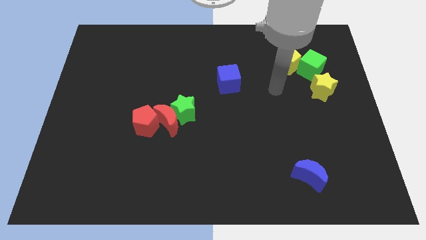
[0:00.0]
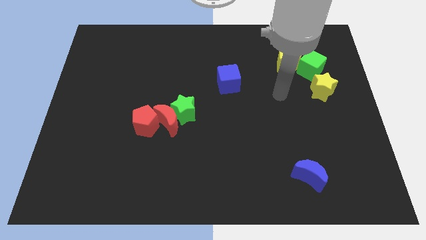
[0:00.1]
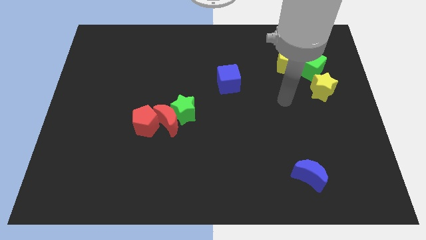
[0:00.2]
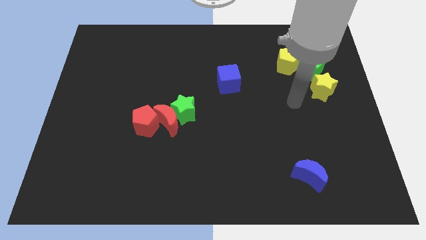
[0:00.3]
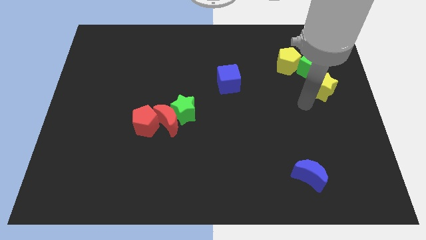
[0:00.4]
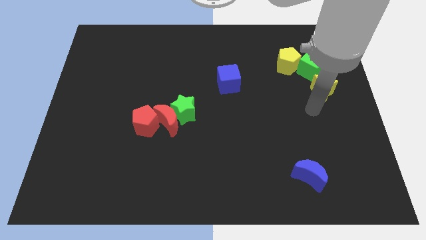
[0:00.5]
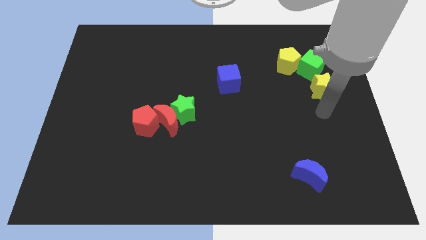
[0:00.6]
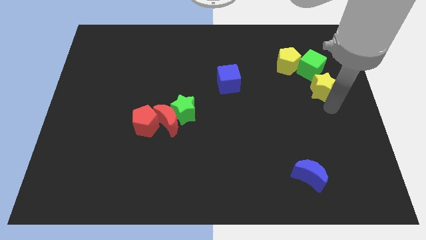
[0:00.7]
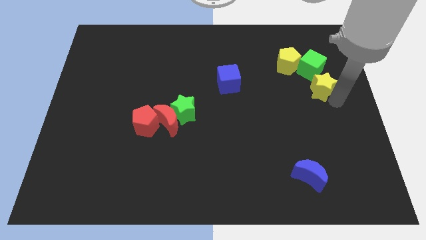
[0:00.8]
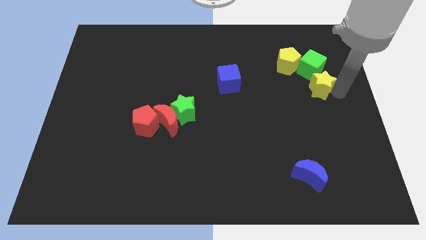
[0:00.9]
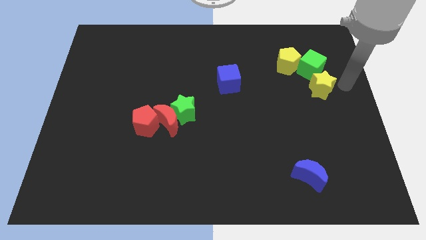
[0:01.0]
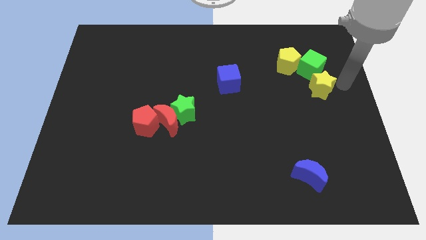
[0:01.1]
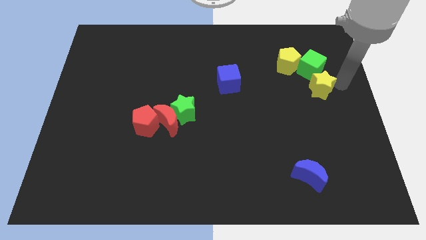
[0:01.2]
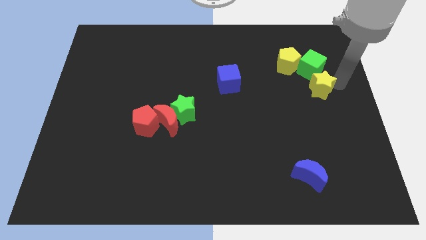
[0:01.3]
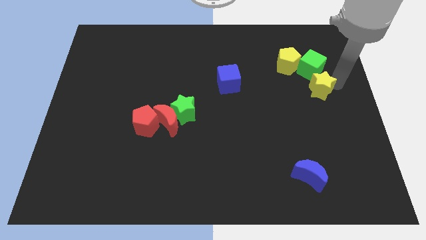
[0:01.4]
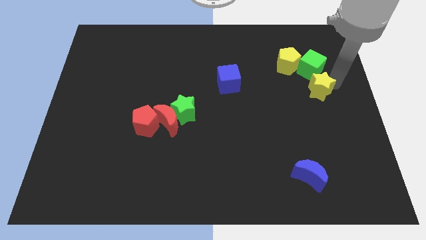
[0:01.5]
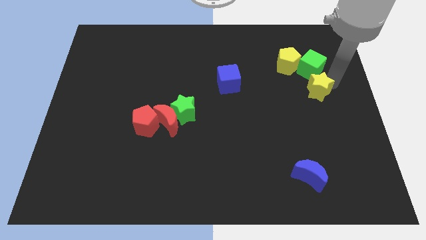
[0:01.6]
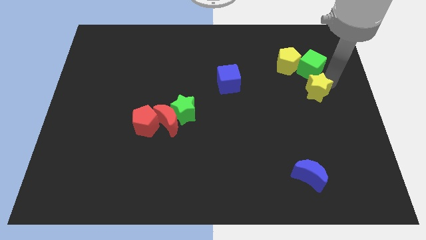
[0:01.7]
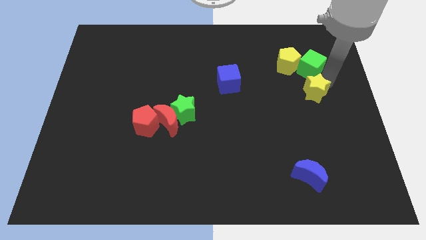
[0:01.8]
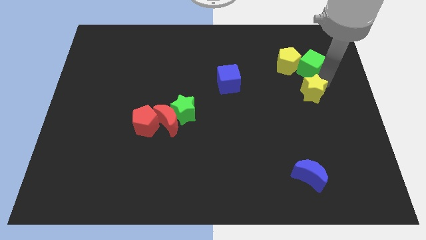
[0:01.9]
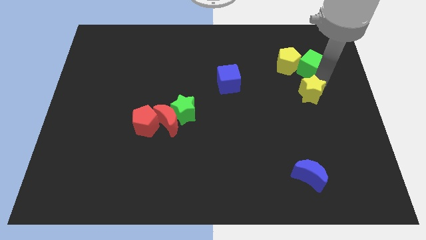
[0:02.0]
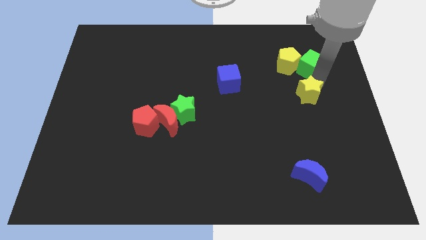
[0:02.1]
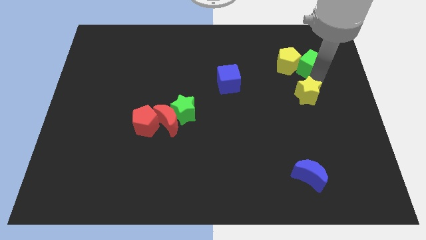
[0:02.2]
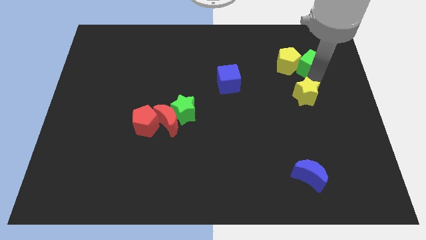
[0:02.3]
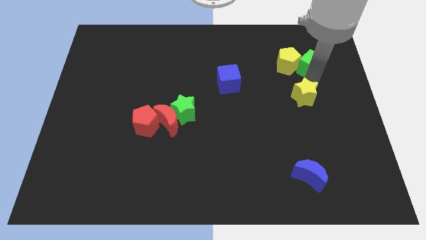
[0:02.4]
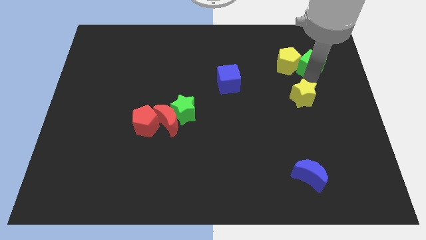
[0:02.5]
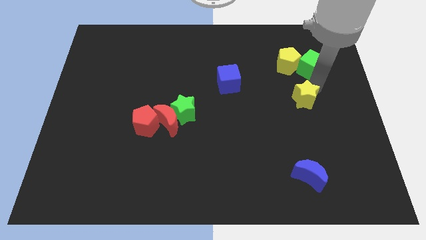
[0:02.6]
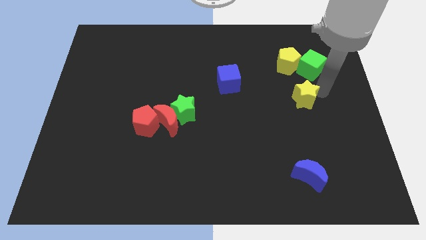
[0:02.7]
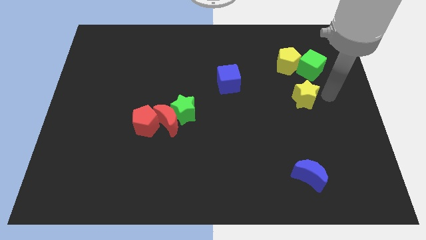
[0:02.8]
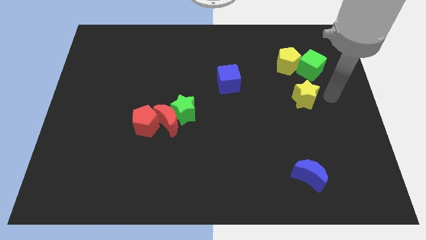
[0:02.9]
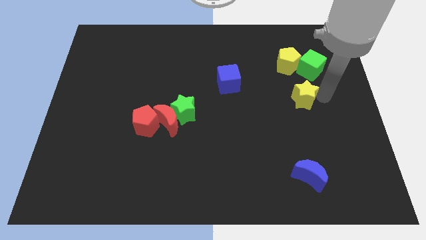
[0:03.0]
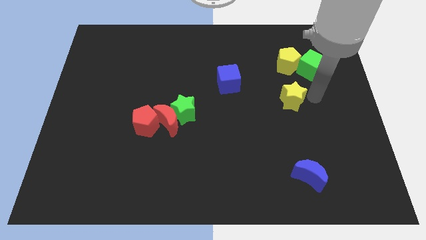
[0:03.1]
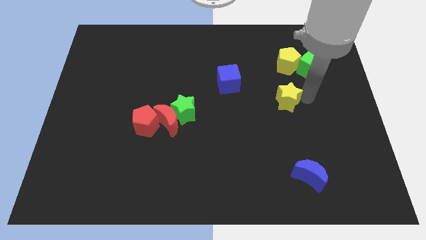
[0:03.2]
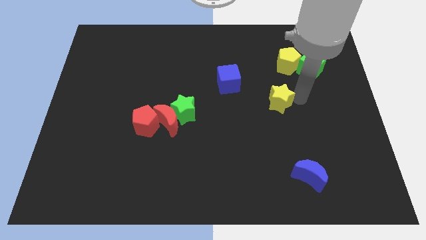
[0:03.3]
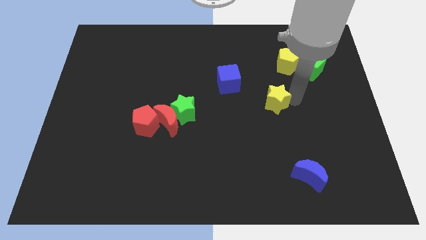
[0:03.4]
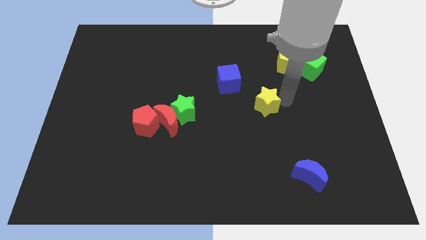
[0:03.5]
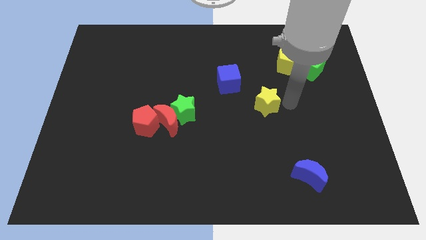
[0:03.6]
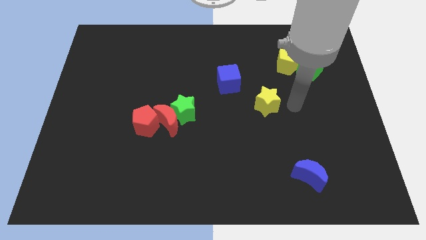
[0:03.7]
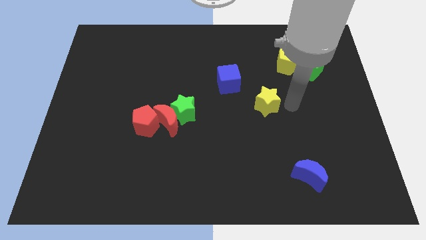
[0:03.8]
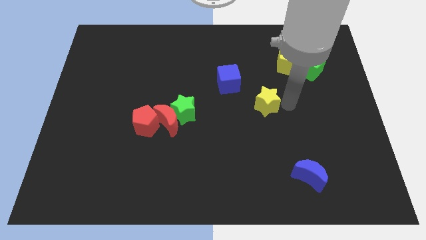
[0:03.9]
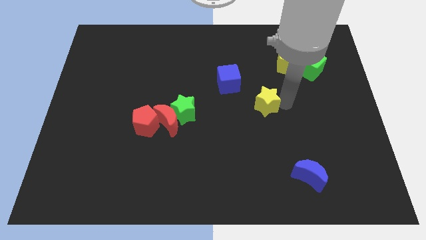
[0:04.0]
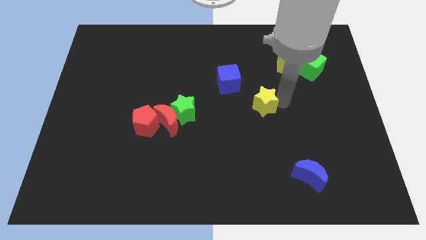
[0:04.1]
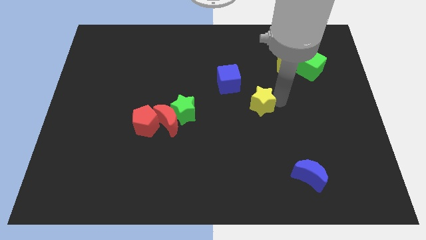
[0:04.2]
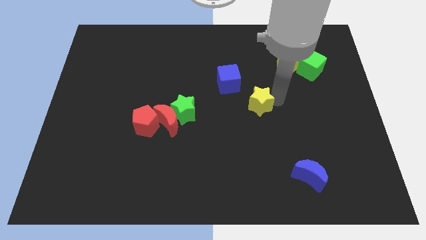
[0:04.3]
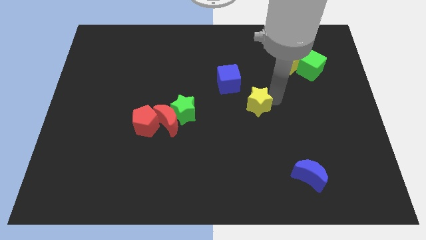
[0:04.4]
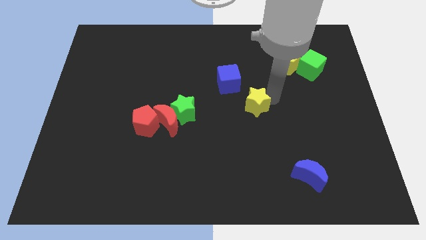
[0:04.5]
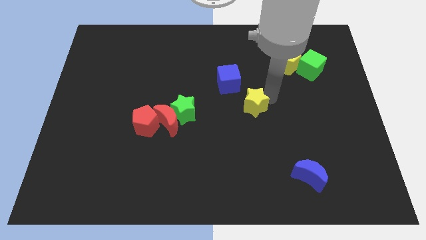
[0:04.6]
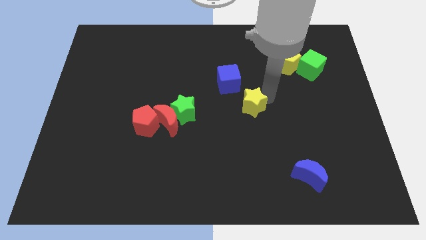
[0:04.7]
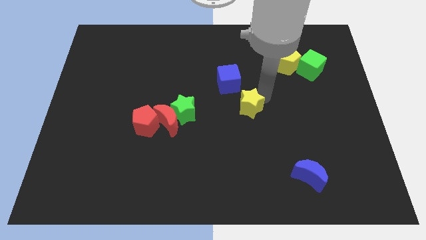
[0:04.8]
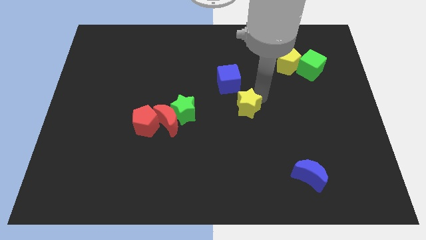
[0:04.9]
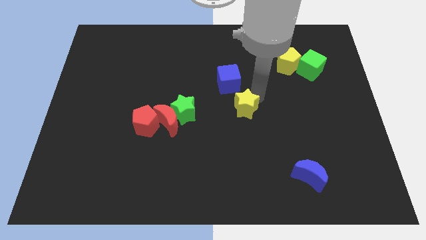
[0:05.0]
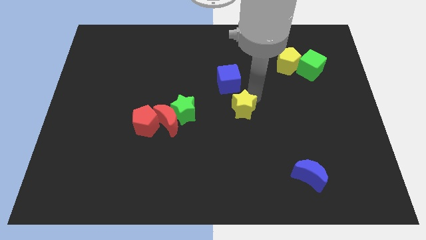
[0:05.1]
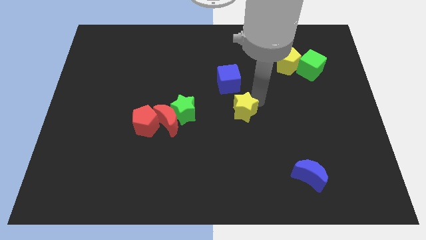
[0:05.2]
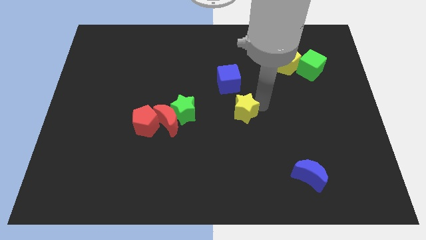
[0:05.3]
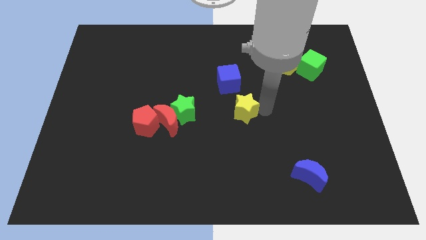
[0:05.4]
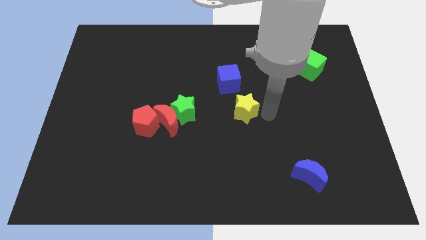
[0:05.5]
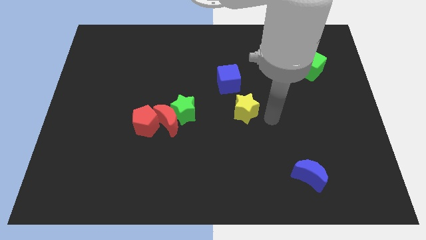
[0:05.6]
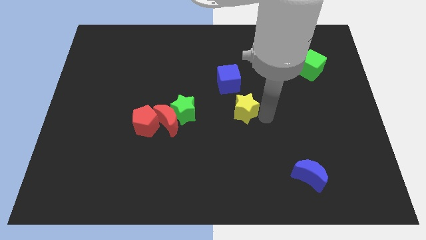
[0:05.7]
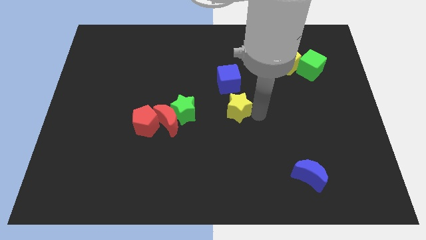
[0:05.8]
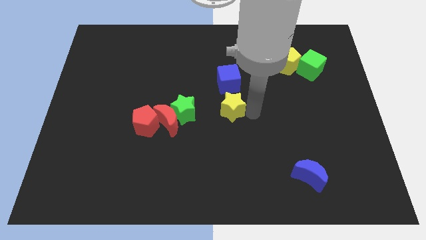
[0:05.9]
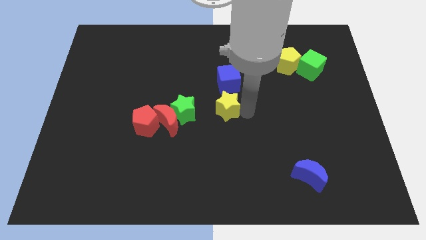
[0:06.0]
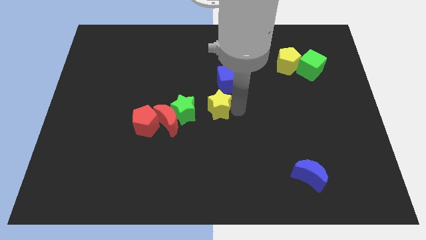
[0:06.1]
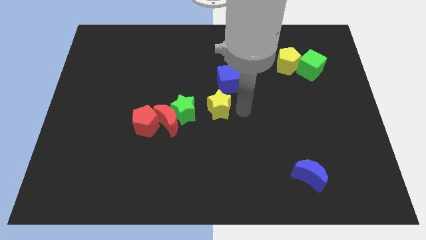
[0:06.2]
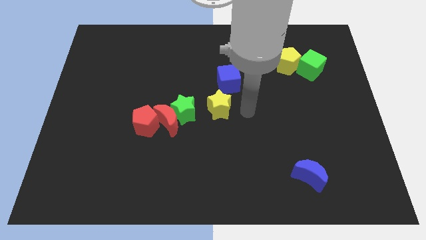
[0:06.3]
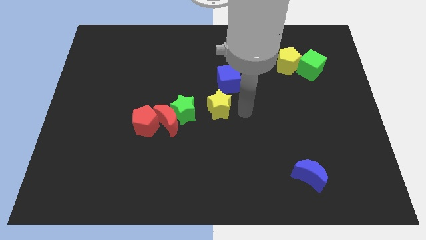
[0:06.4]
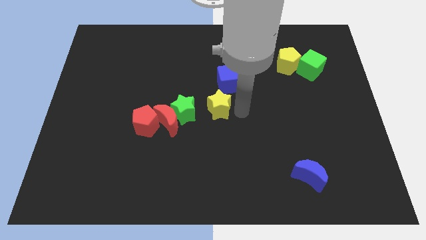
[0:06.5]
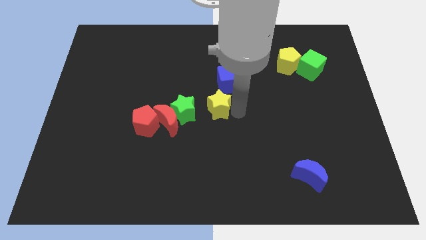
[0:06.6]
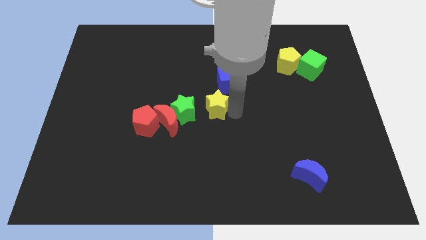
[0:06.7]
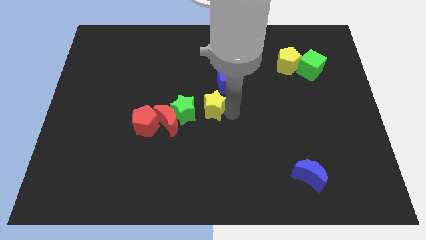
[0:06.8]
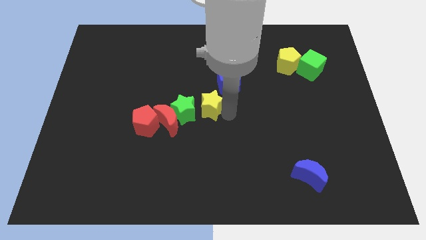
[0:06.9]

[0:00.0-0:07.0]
move the yellow star diagonally up and to the right of the red moon

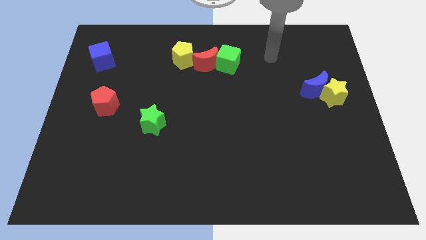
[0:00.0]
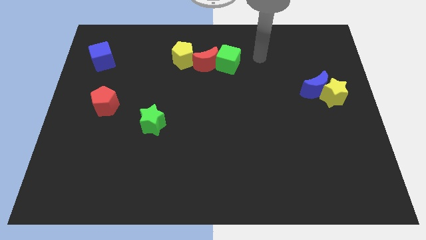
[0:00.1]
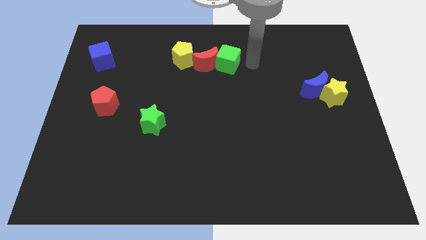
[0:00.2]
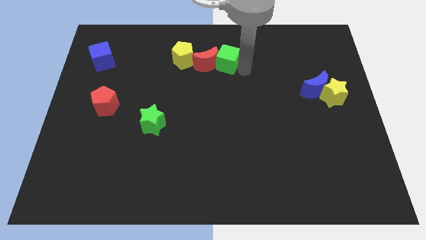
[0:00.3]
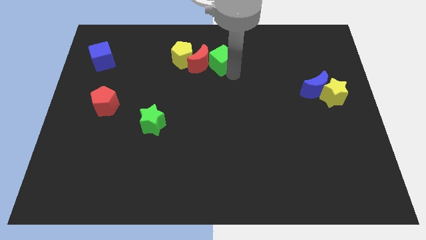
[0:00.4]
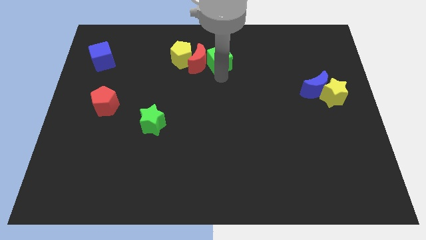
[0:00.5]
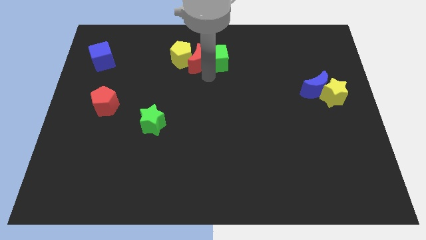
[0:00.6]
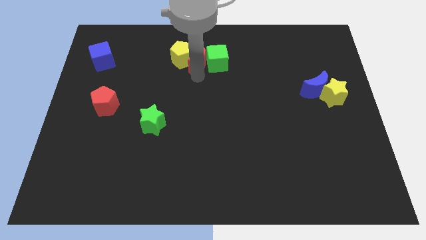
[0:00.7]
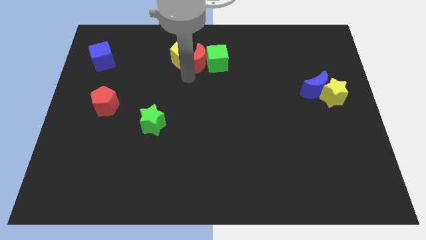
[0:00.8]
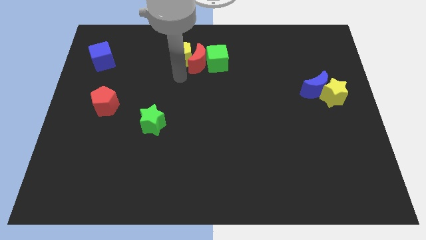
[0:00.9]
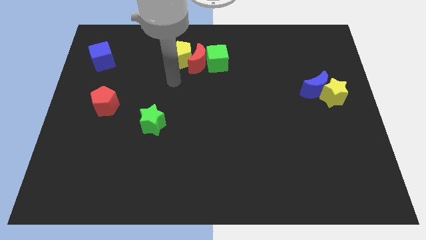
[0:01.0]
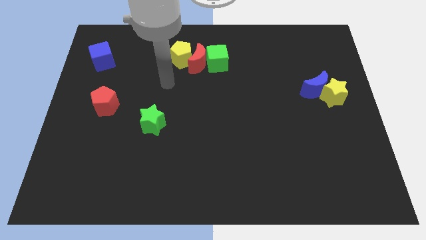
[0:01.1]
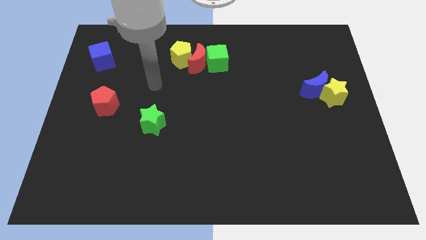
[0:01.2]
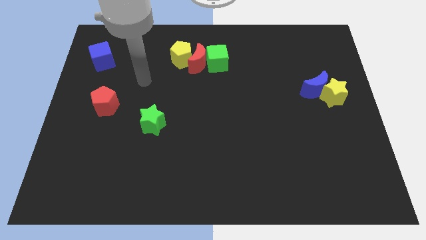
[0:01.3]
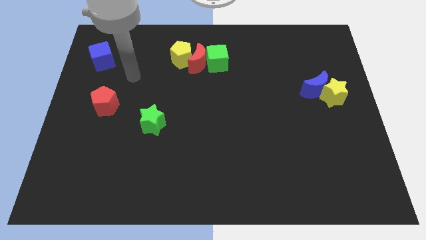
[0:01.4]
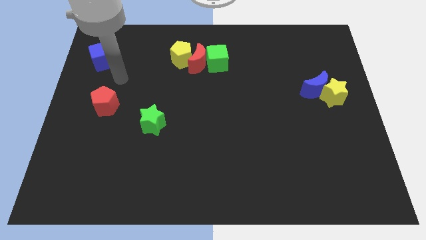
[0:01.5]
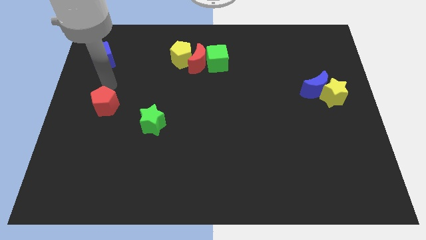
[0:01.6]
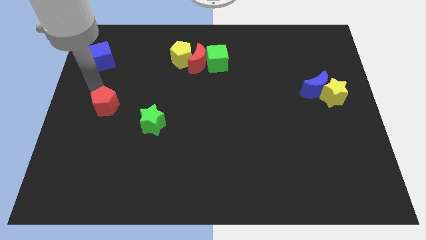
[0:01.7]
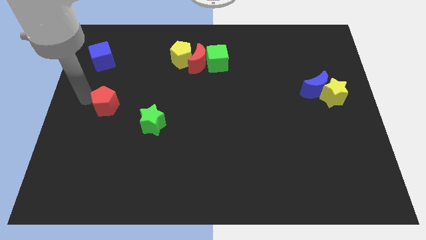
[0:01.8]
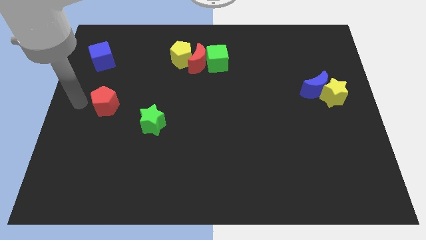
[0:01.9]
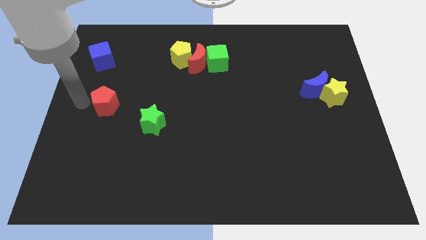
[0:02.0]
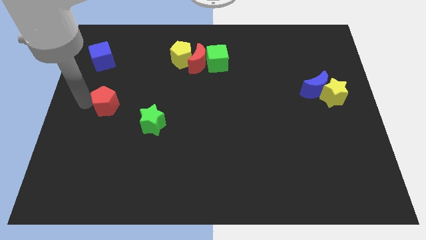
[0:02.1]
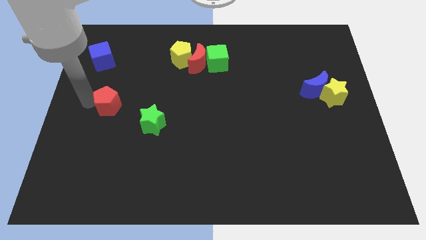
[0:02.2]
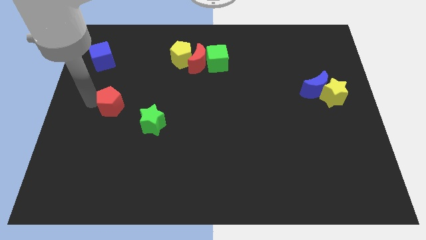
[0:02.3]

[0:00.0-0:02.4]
move the red pentagon to the top left side of the green star
